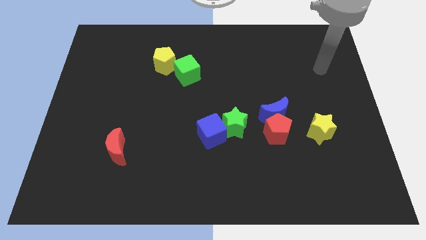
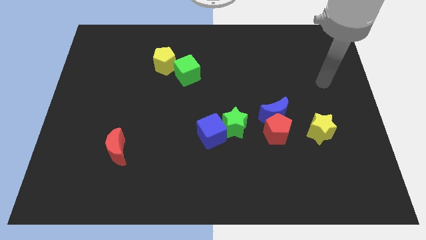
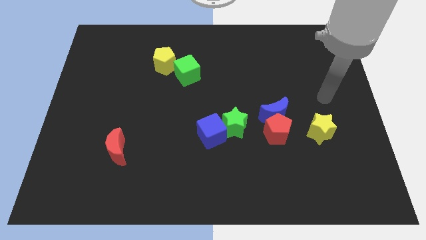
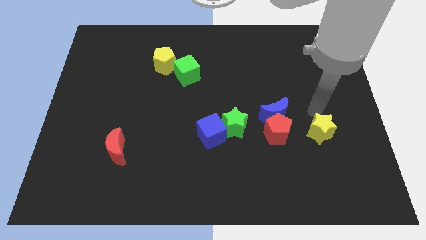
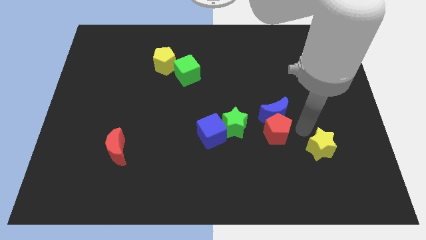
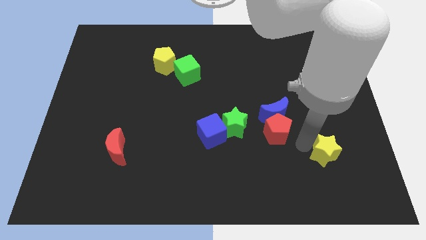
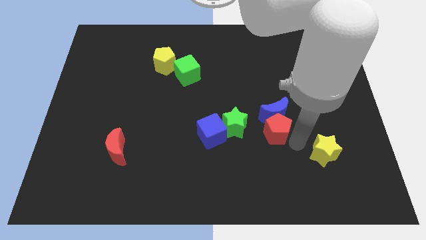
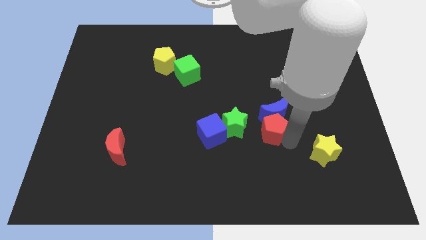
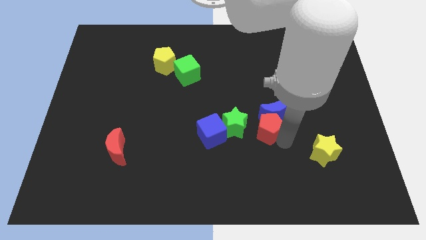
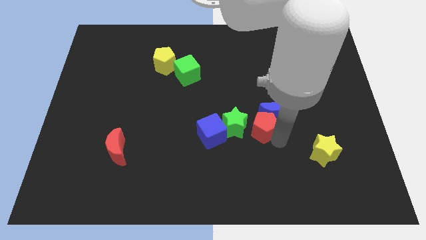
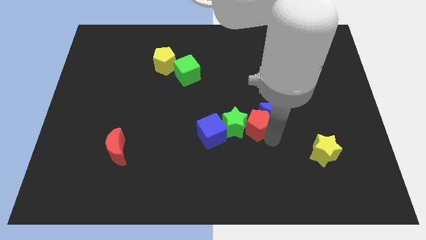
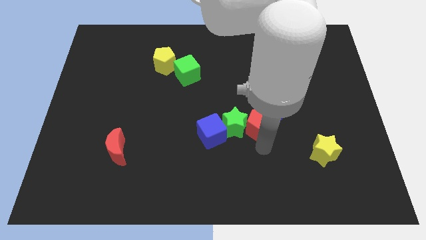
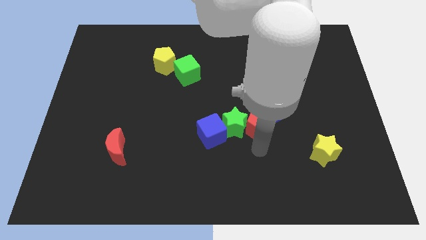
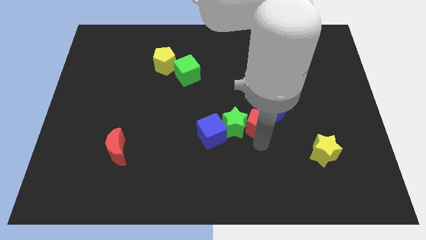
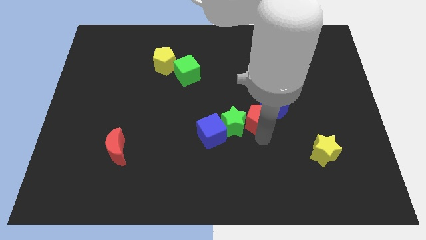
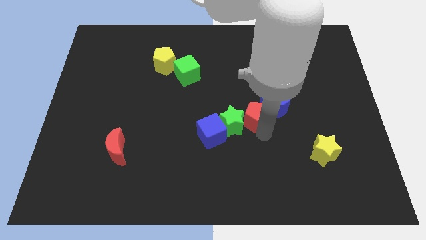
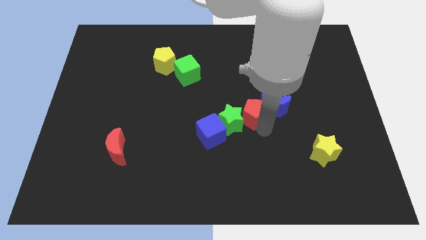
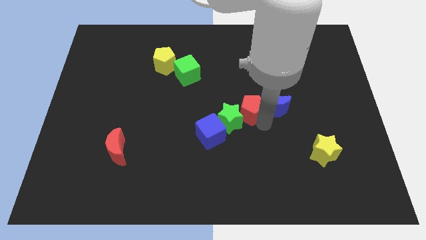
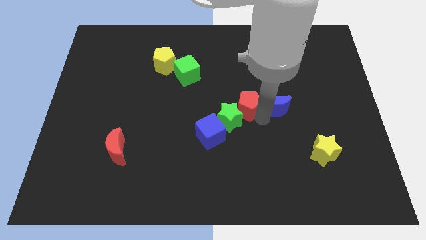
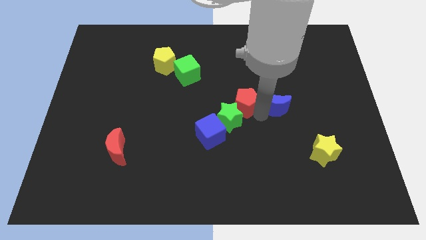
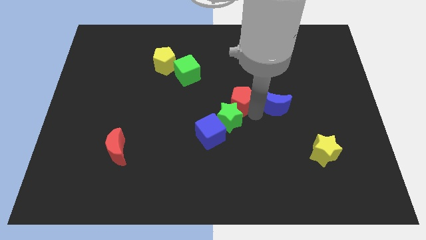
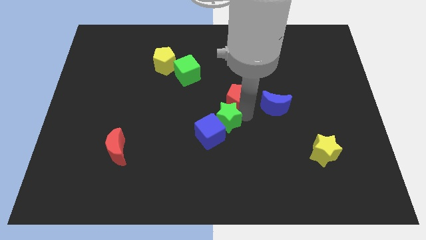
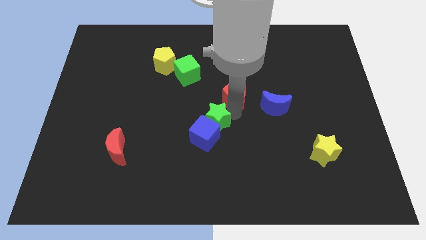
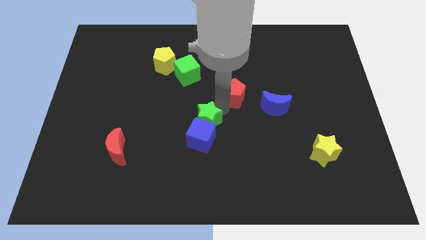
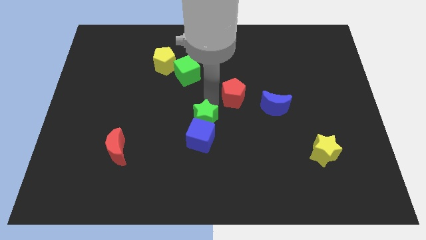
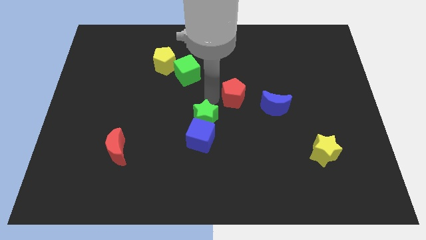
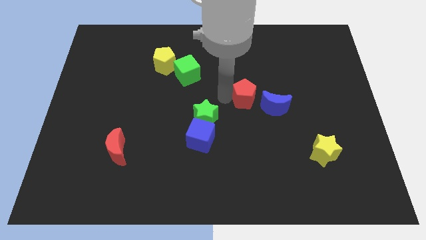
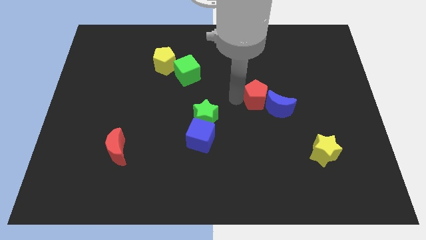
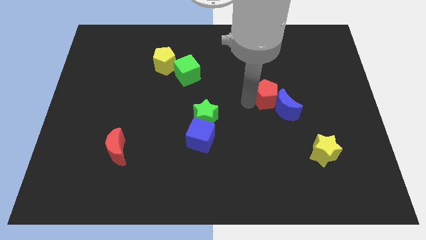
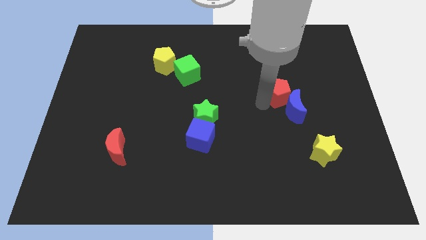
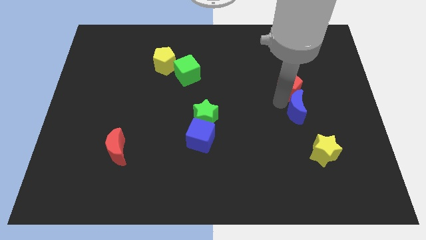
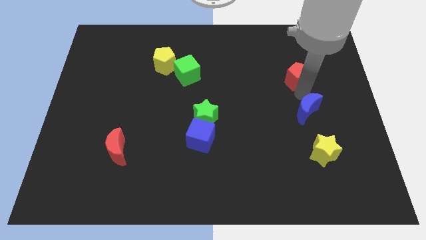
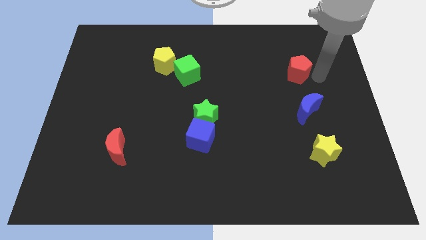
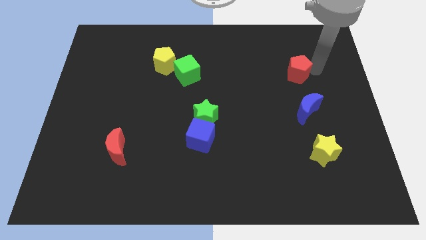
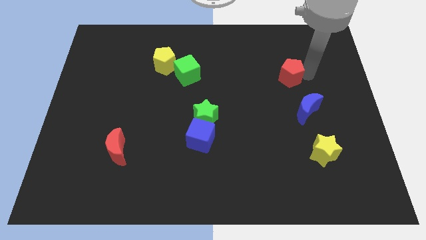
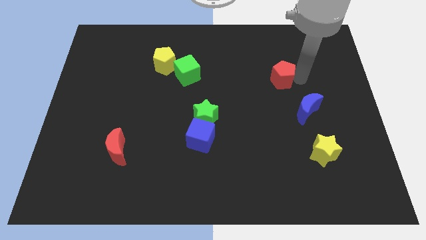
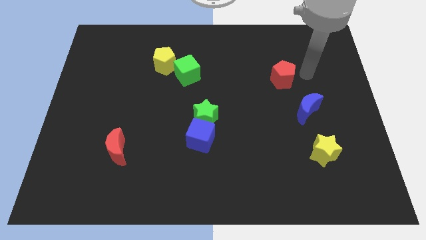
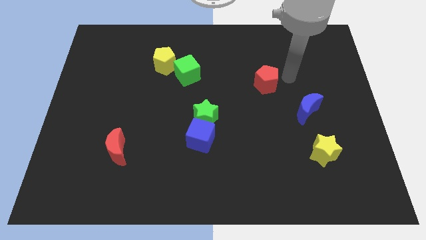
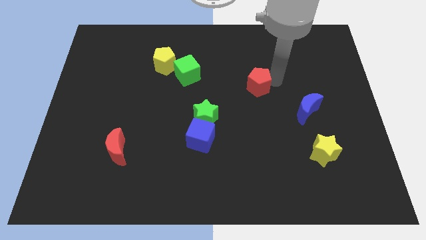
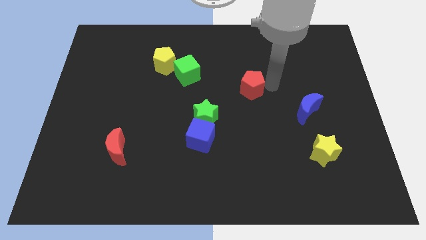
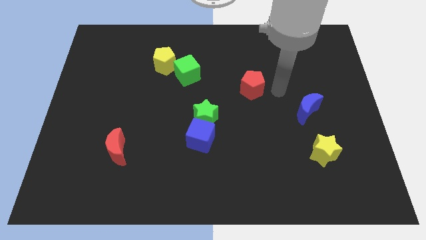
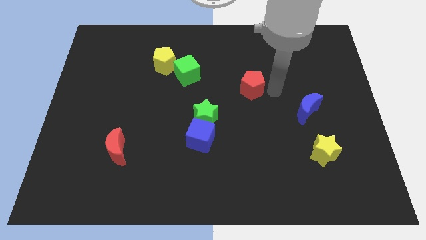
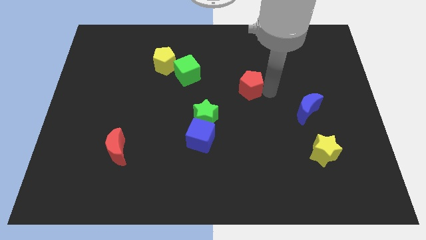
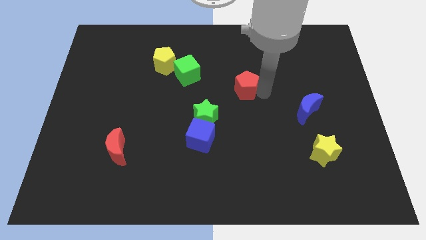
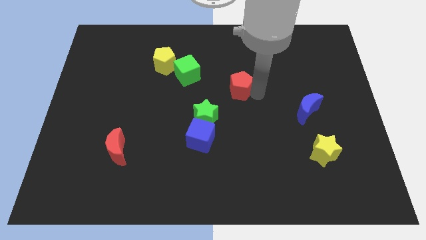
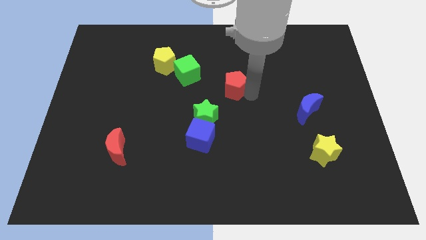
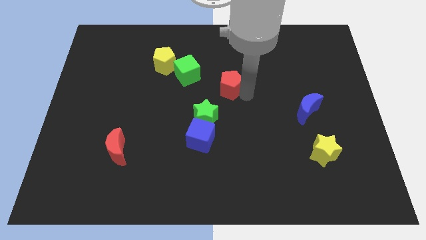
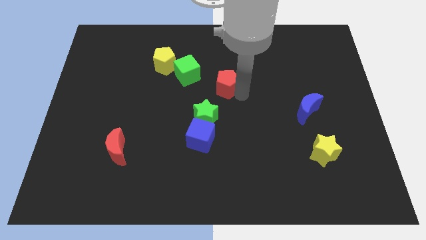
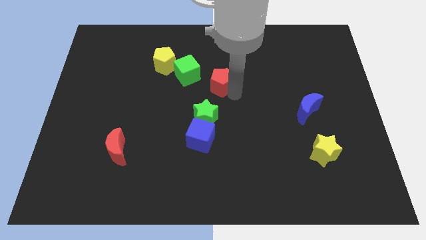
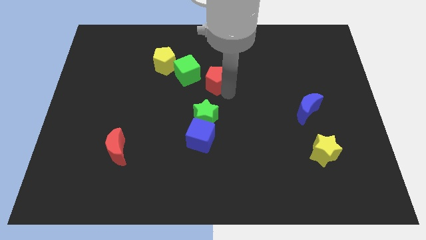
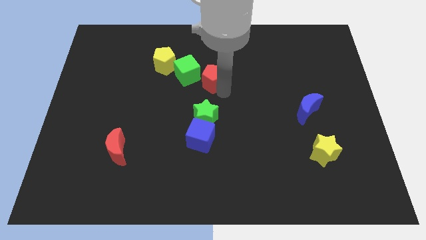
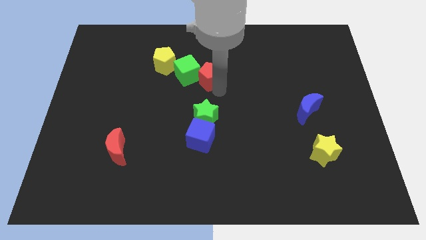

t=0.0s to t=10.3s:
slide the red pentagon close to the green cube

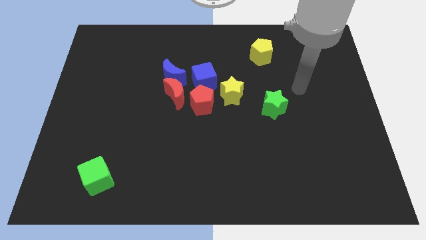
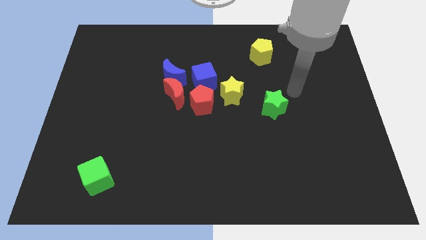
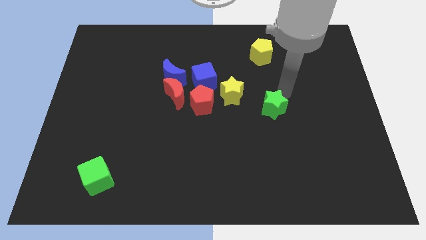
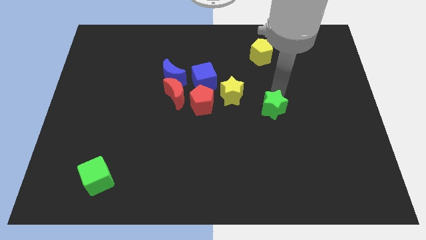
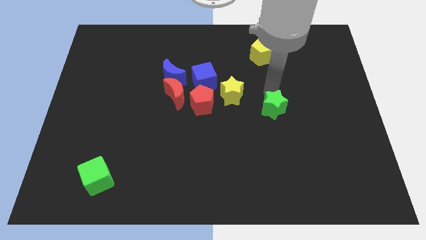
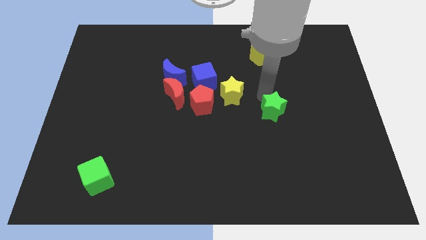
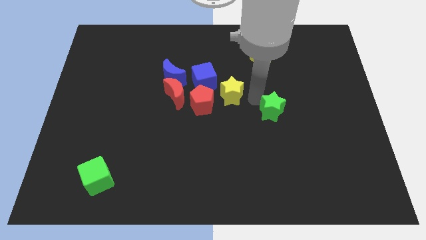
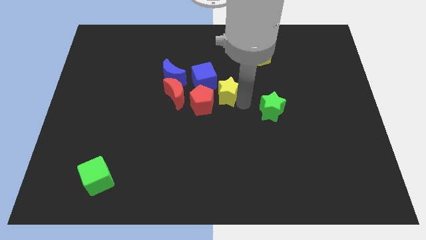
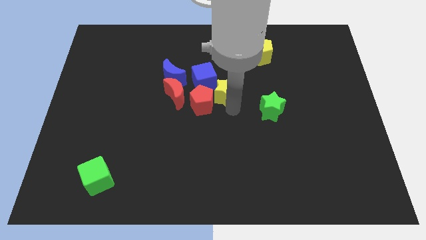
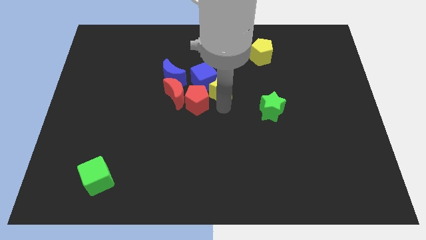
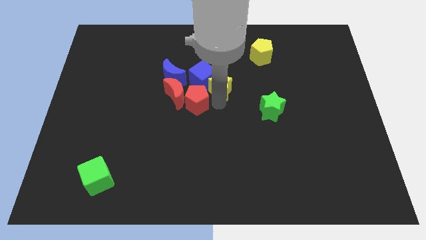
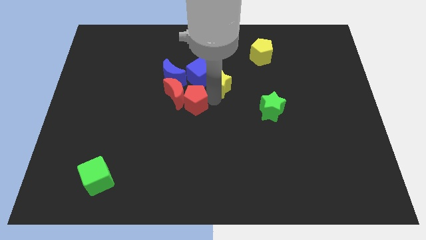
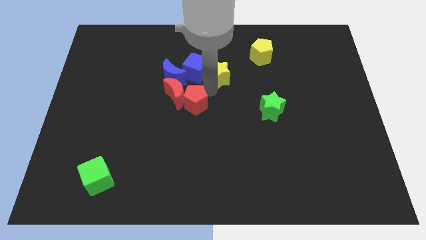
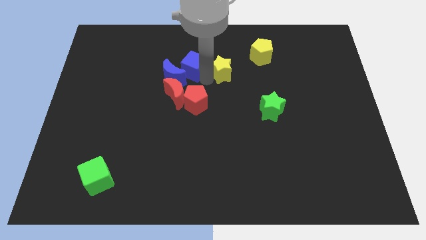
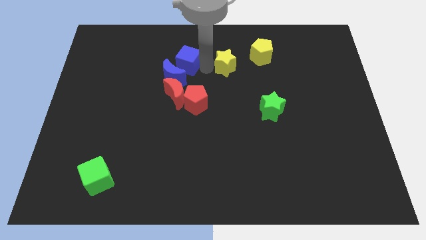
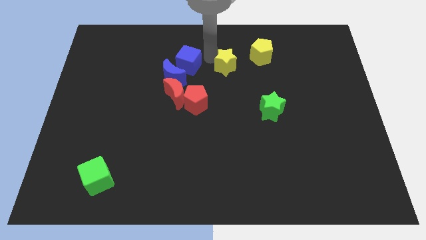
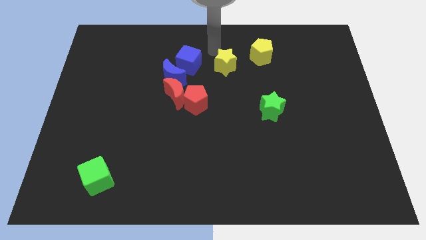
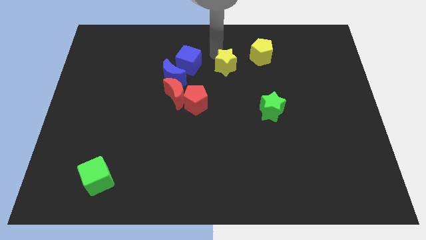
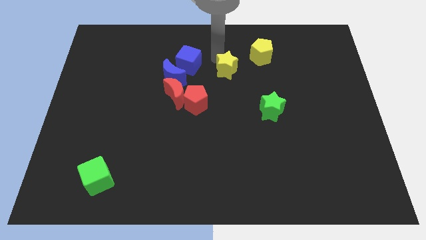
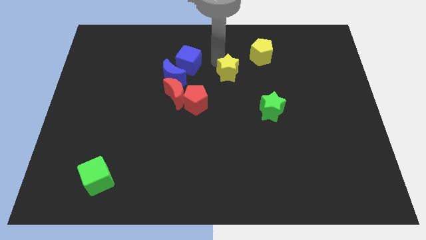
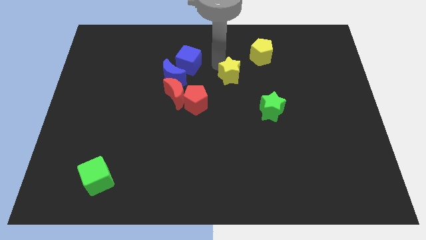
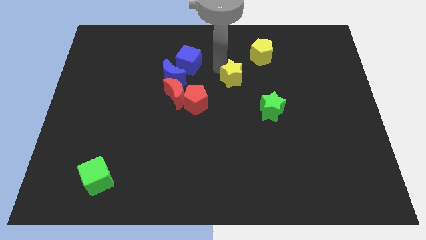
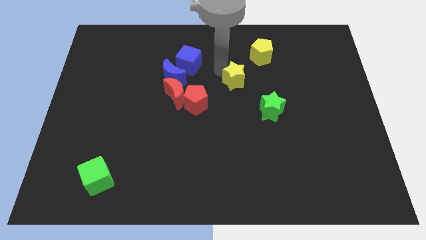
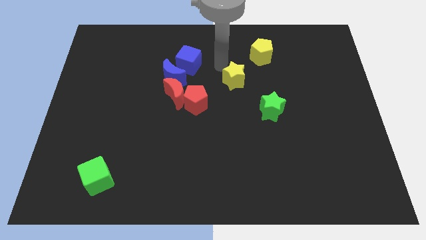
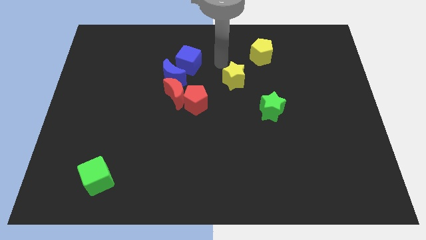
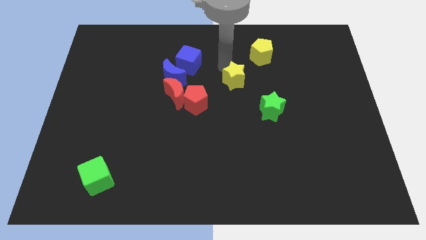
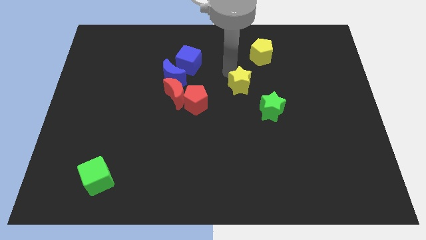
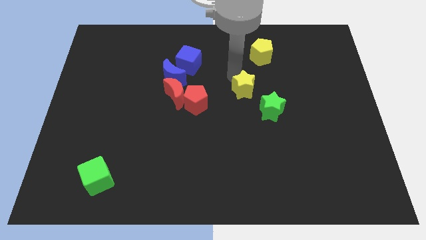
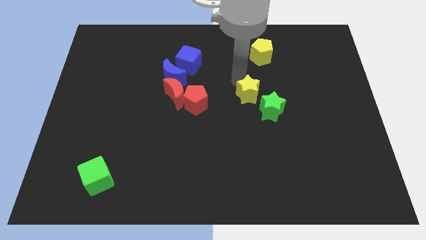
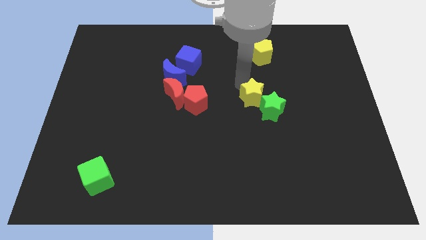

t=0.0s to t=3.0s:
push the yellow star close to the green star
